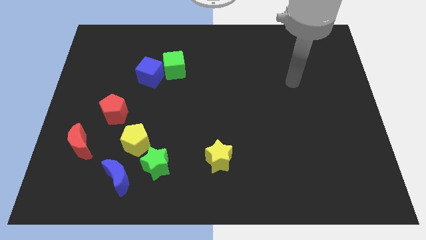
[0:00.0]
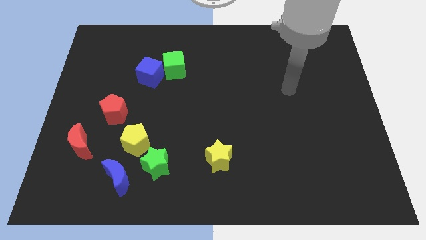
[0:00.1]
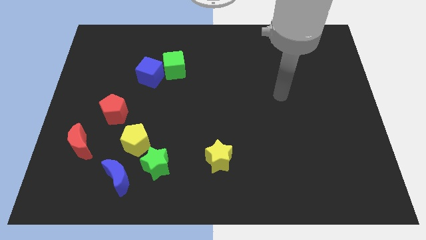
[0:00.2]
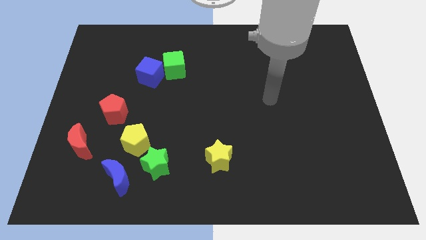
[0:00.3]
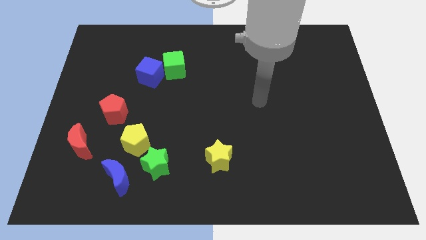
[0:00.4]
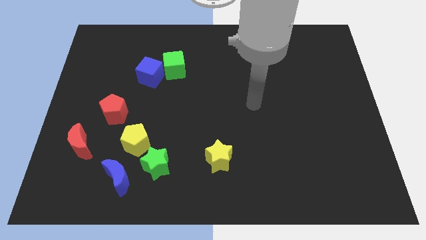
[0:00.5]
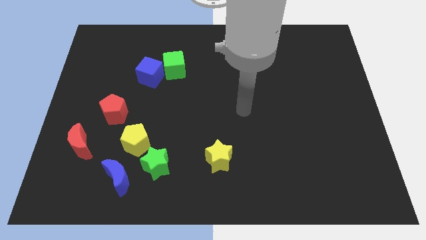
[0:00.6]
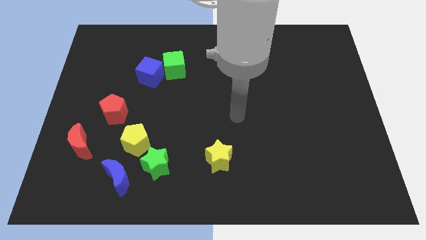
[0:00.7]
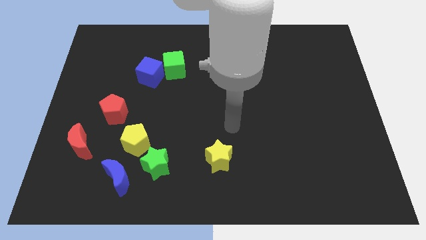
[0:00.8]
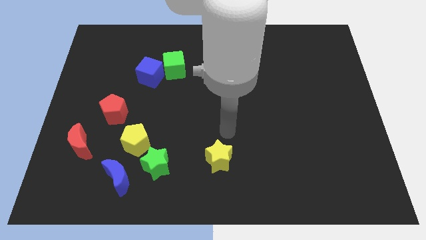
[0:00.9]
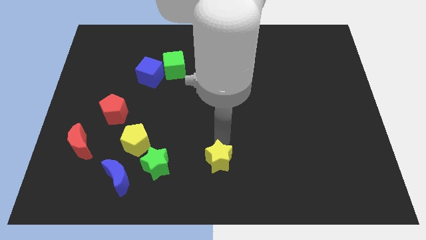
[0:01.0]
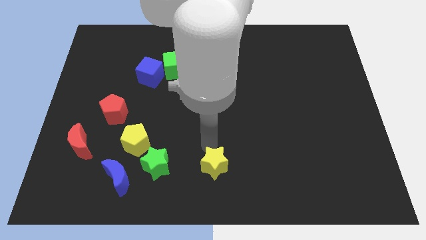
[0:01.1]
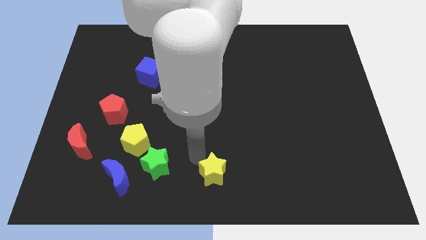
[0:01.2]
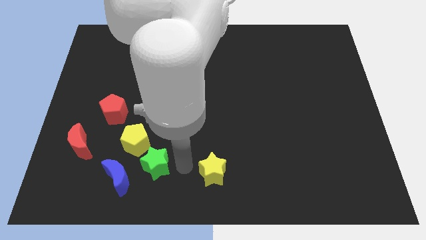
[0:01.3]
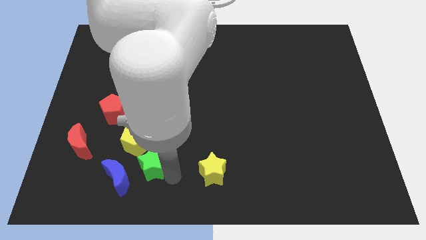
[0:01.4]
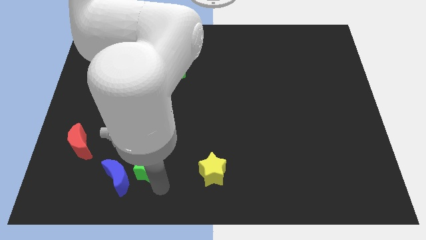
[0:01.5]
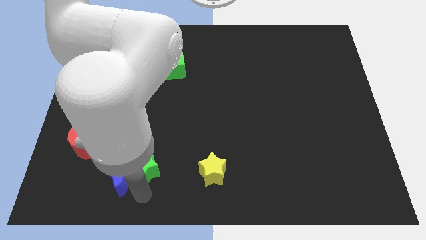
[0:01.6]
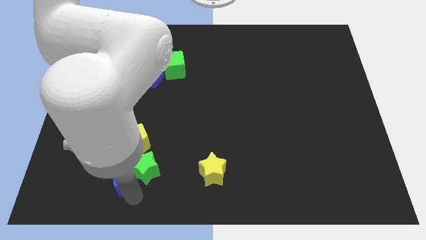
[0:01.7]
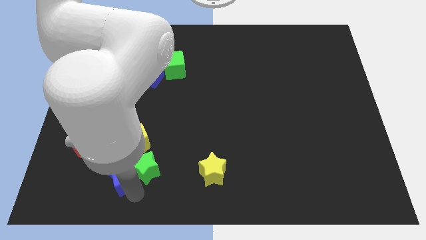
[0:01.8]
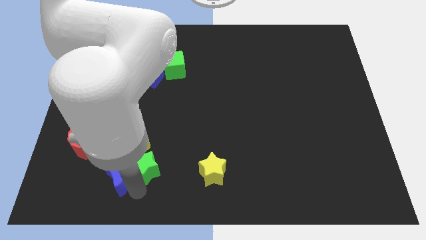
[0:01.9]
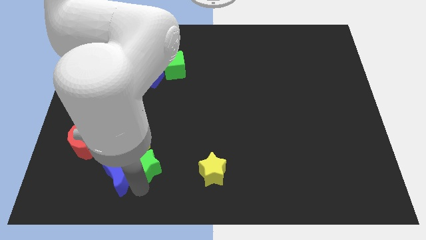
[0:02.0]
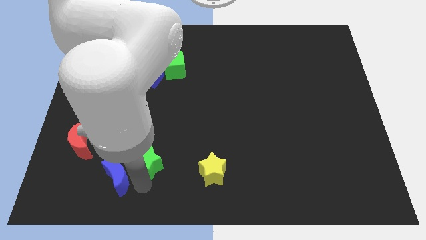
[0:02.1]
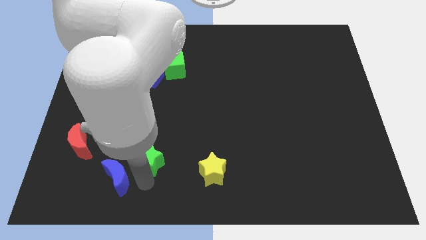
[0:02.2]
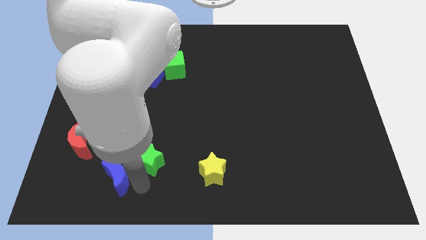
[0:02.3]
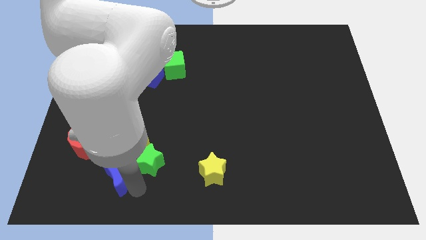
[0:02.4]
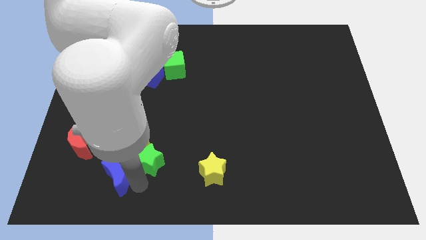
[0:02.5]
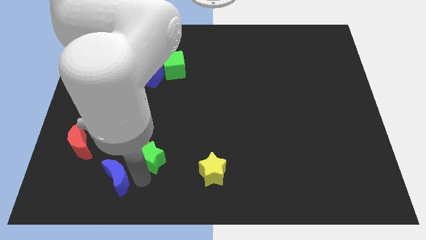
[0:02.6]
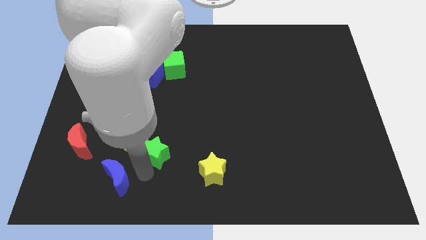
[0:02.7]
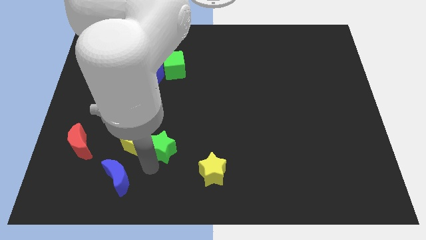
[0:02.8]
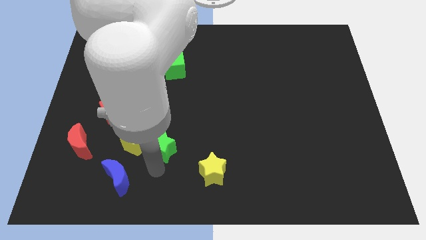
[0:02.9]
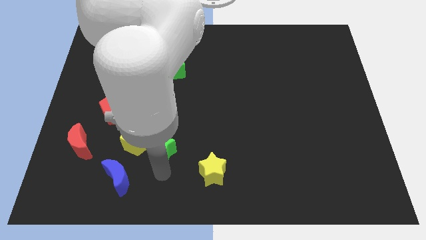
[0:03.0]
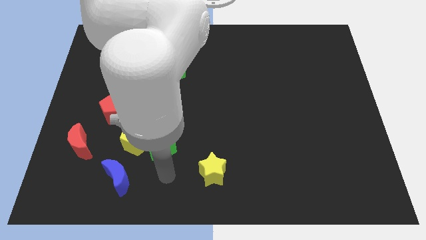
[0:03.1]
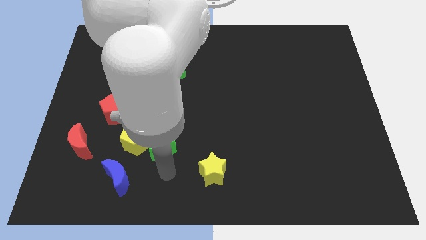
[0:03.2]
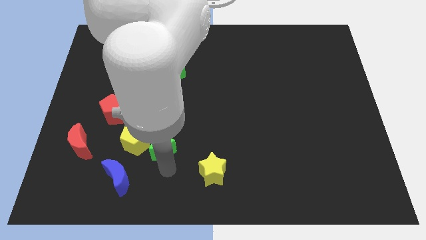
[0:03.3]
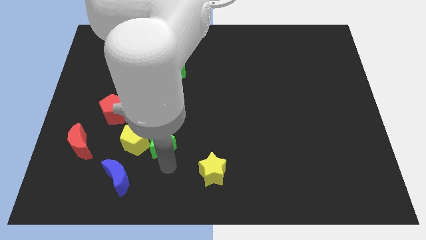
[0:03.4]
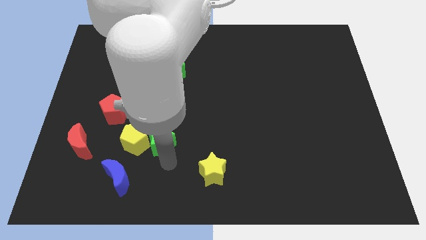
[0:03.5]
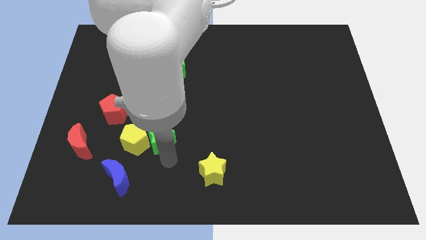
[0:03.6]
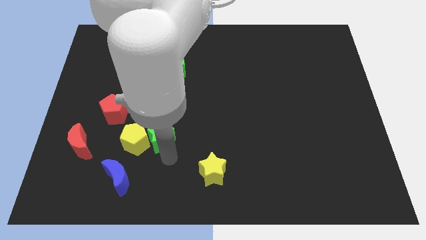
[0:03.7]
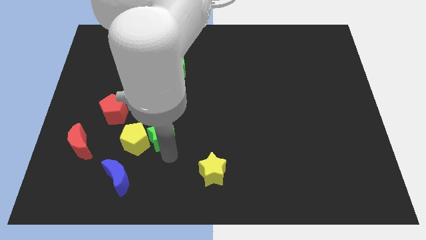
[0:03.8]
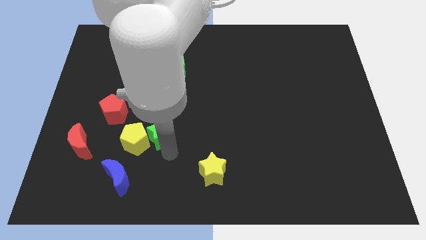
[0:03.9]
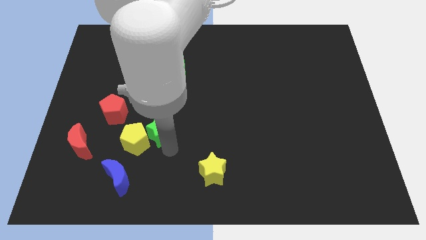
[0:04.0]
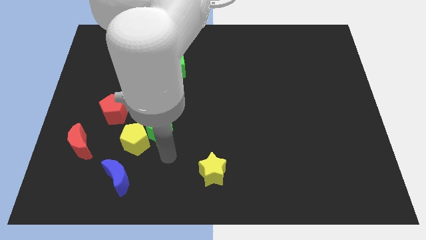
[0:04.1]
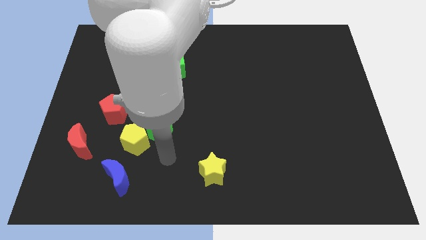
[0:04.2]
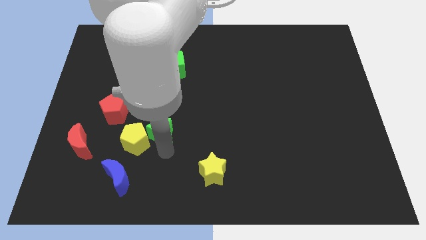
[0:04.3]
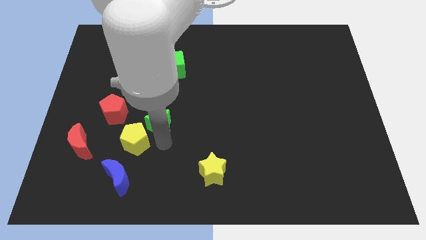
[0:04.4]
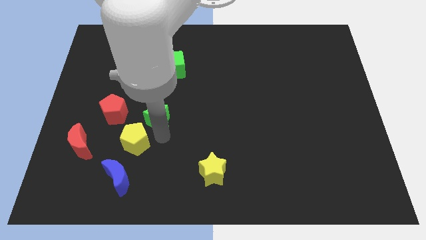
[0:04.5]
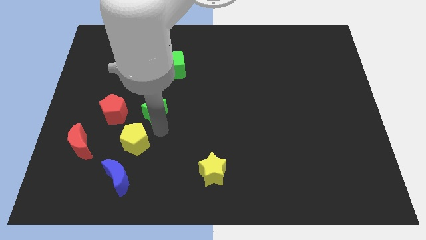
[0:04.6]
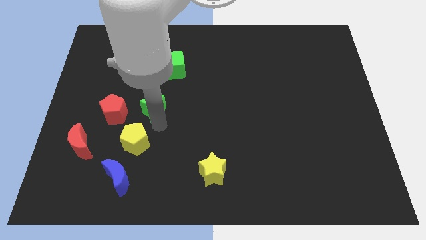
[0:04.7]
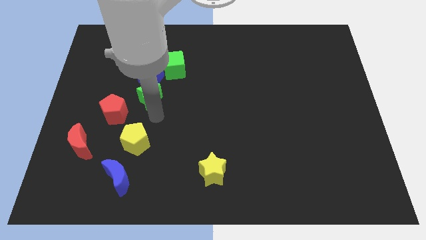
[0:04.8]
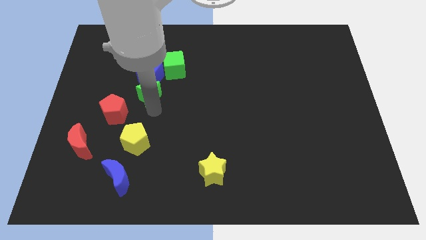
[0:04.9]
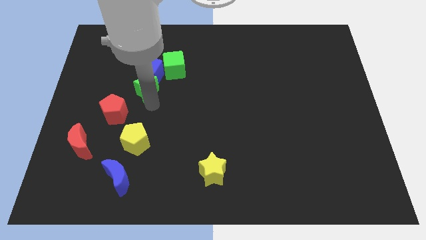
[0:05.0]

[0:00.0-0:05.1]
push the green star towards the blue cube

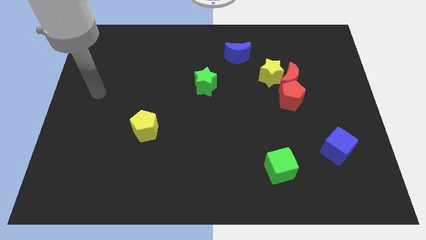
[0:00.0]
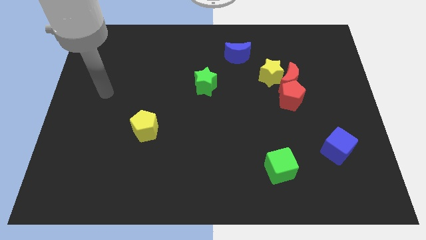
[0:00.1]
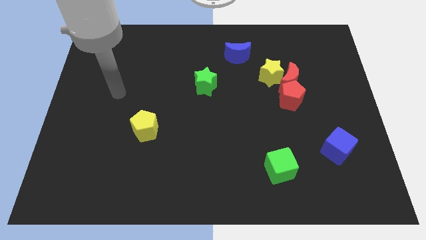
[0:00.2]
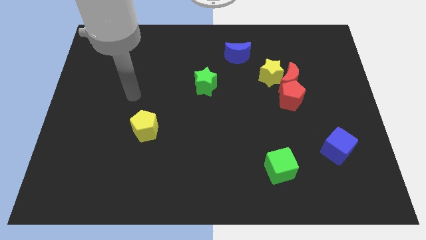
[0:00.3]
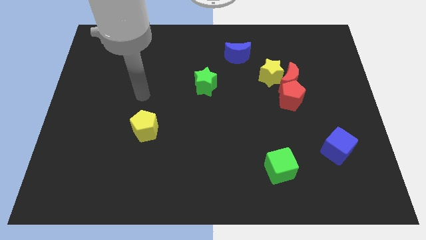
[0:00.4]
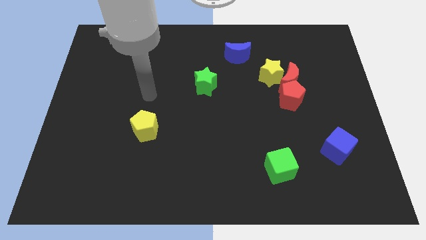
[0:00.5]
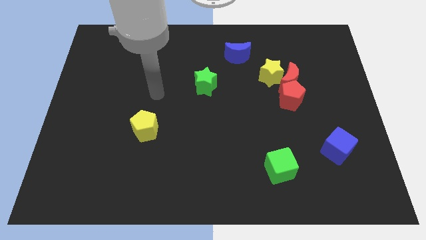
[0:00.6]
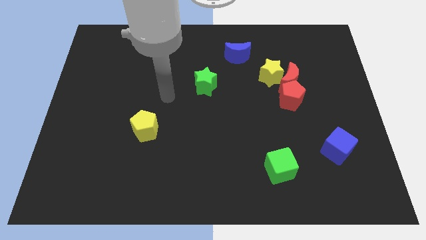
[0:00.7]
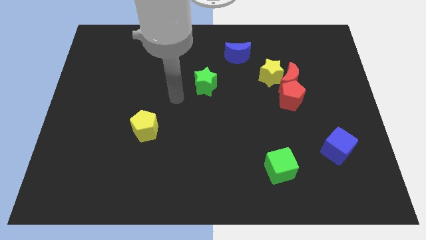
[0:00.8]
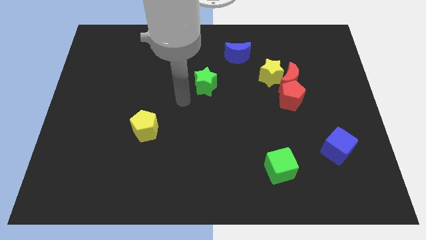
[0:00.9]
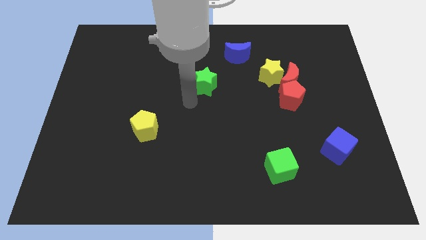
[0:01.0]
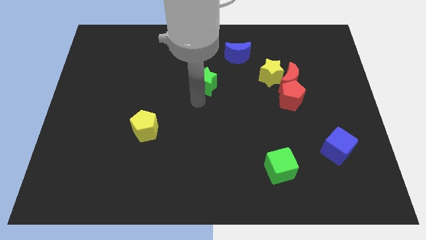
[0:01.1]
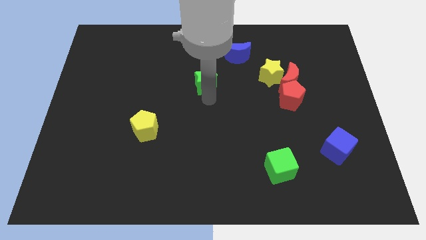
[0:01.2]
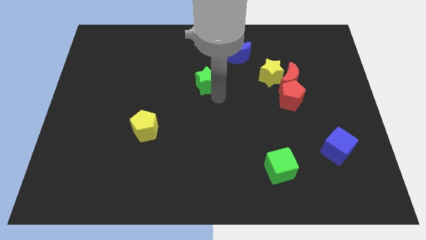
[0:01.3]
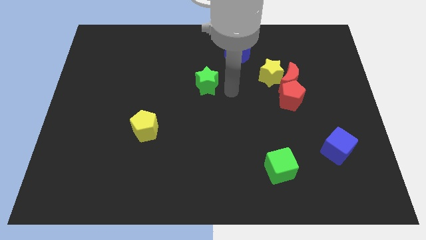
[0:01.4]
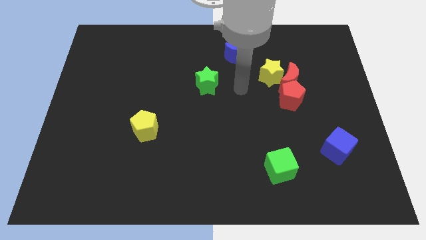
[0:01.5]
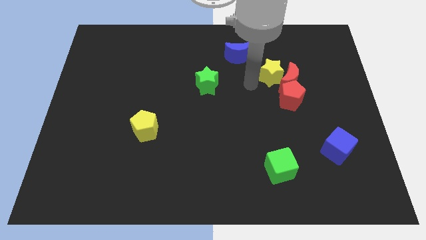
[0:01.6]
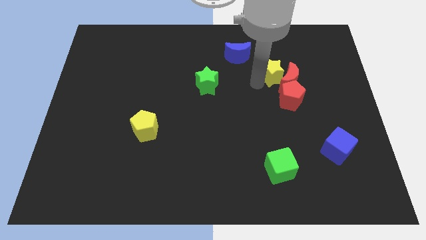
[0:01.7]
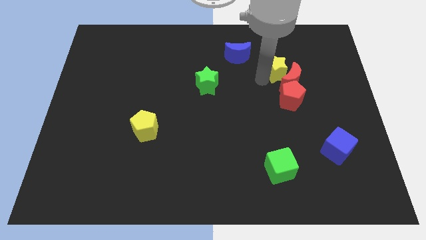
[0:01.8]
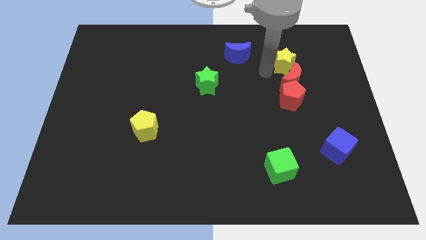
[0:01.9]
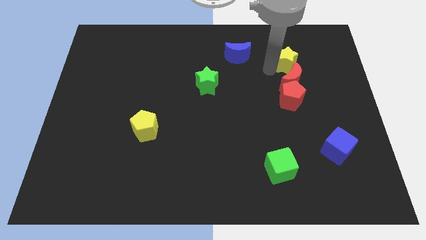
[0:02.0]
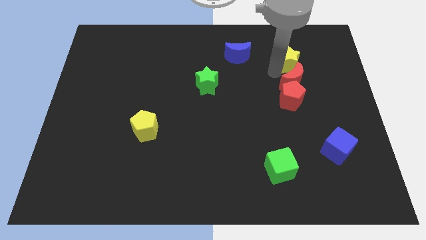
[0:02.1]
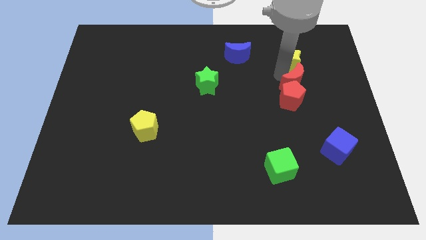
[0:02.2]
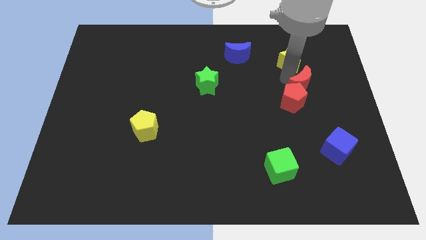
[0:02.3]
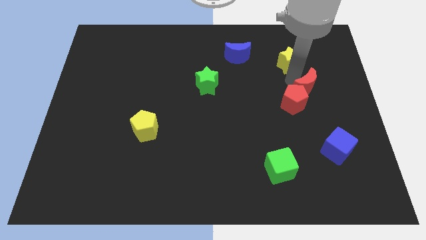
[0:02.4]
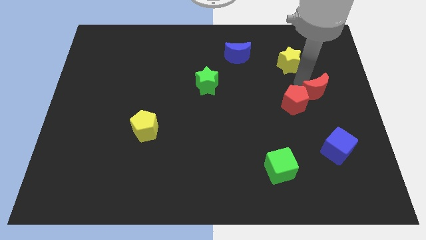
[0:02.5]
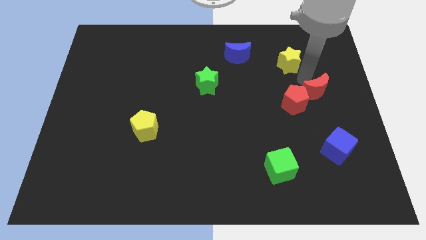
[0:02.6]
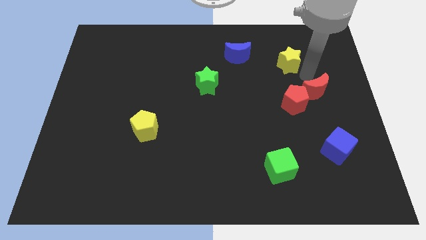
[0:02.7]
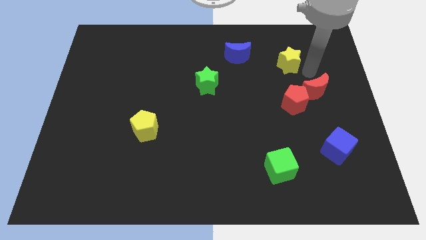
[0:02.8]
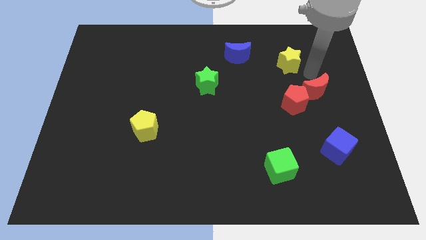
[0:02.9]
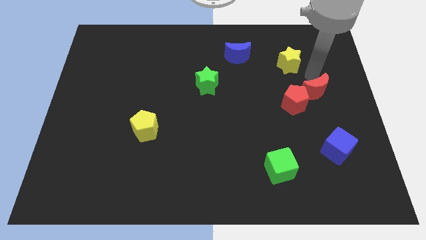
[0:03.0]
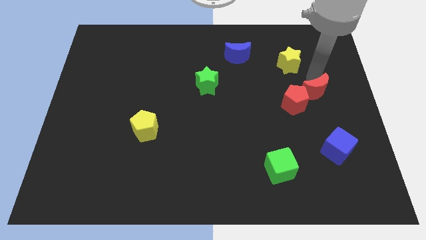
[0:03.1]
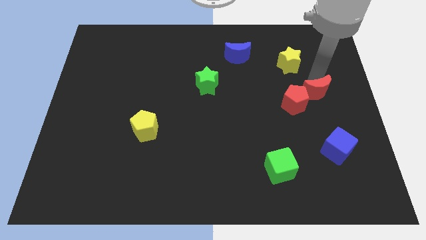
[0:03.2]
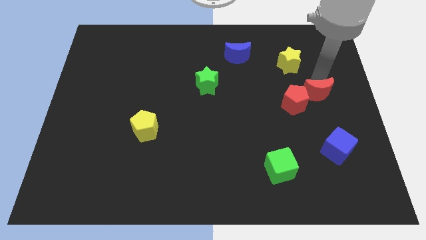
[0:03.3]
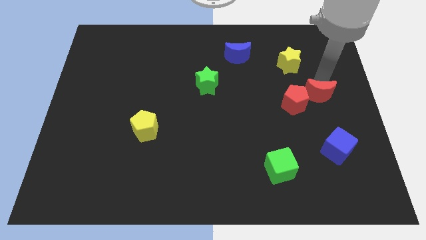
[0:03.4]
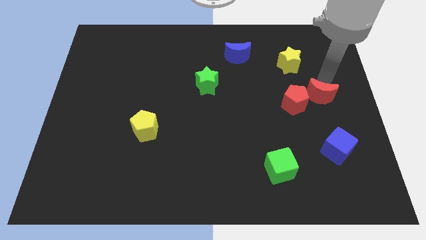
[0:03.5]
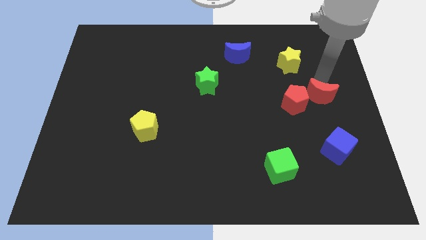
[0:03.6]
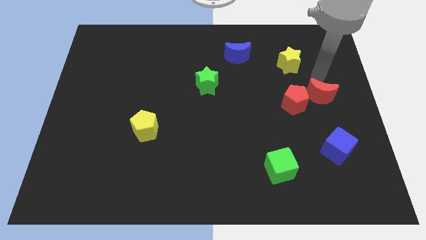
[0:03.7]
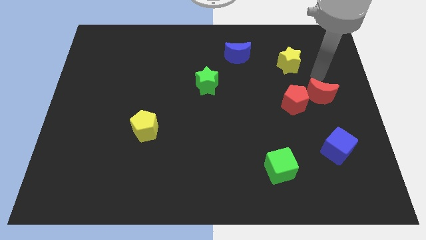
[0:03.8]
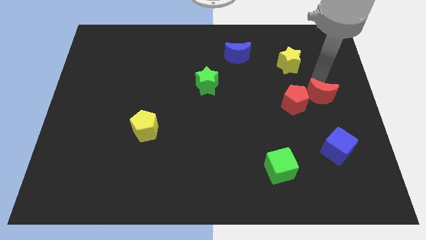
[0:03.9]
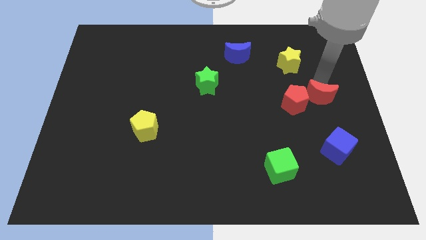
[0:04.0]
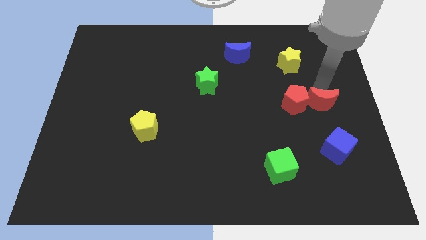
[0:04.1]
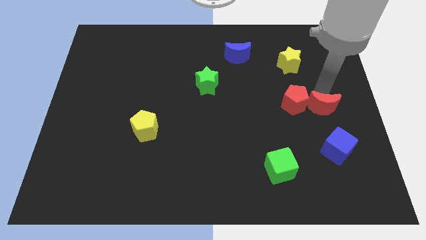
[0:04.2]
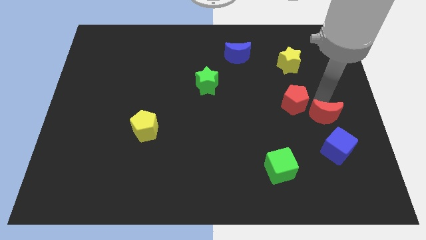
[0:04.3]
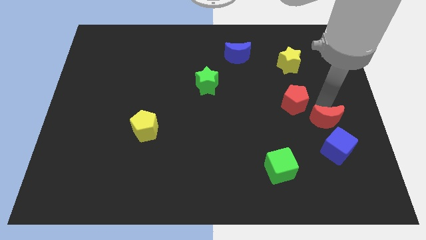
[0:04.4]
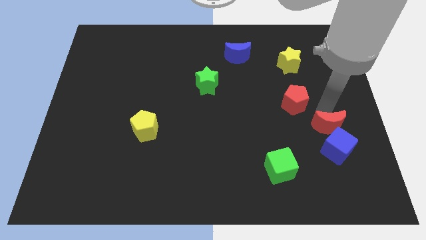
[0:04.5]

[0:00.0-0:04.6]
move the red moon to the blue cube
